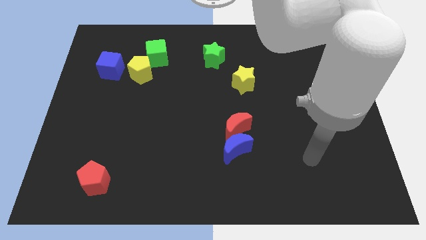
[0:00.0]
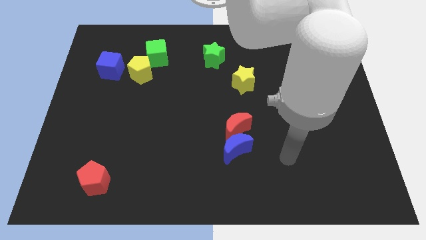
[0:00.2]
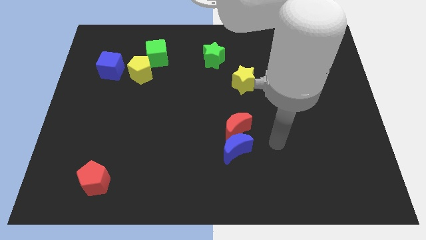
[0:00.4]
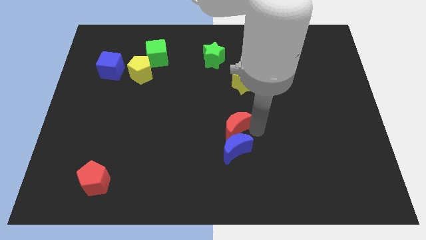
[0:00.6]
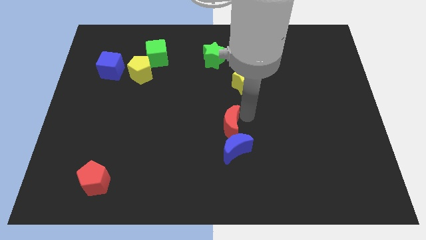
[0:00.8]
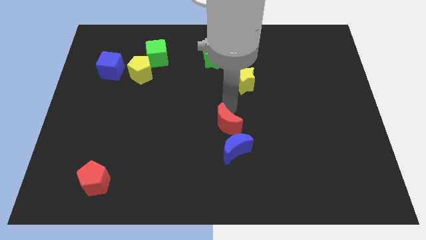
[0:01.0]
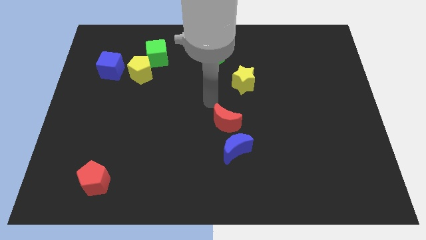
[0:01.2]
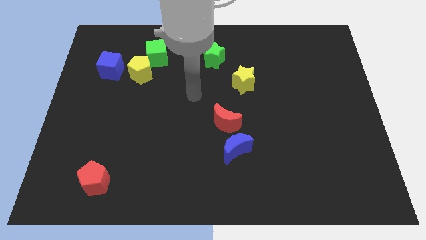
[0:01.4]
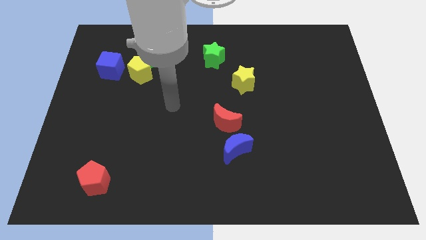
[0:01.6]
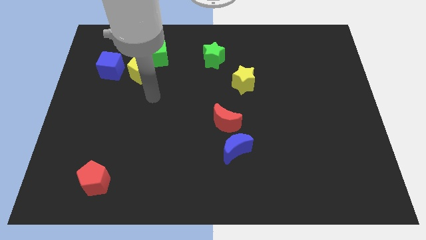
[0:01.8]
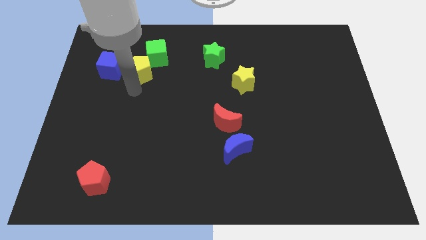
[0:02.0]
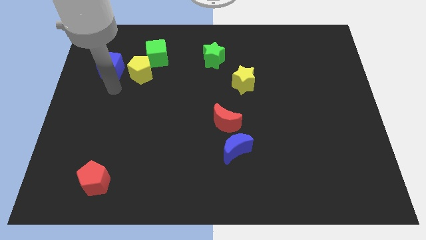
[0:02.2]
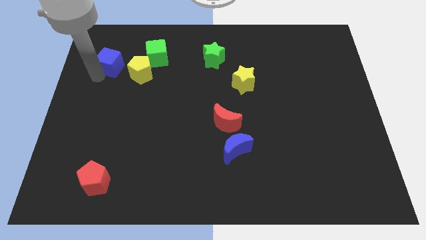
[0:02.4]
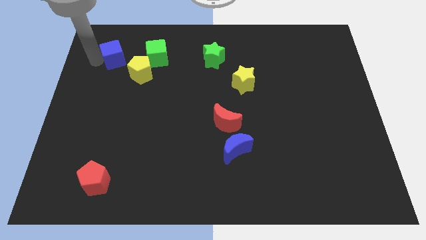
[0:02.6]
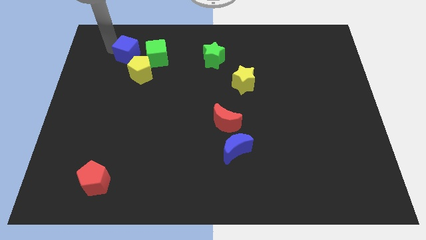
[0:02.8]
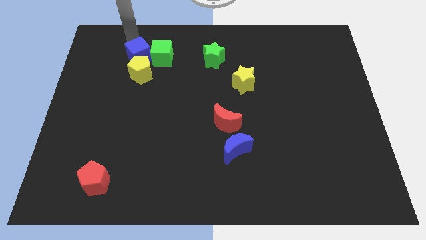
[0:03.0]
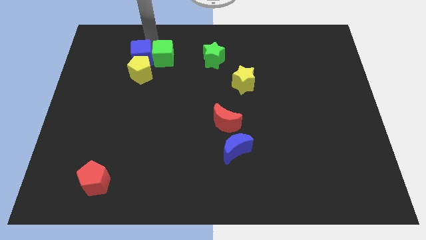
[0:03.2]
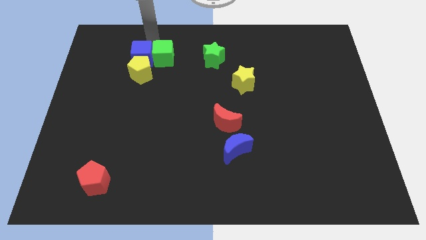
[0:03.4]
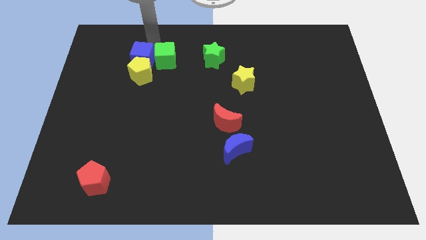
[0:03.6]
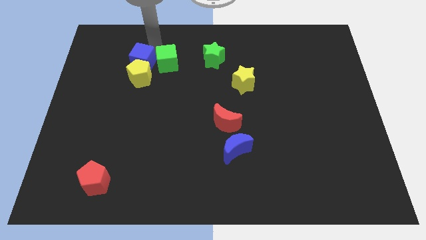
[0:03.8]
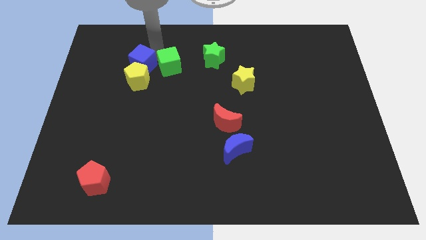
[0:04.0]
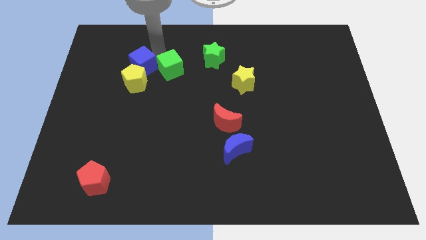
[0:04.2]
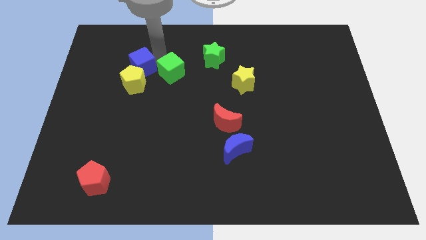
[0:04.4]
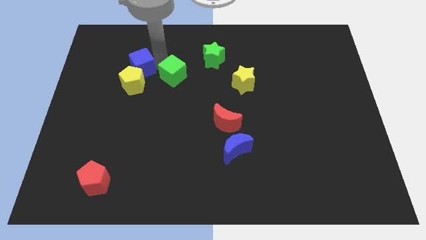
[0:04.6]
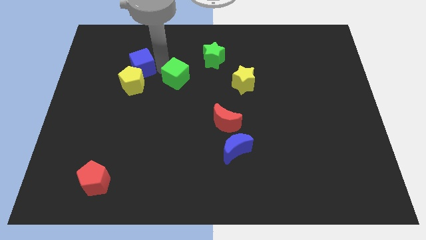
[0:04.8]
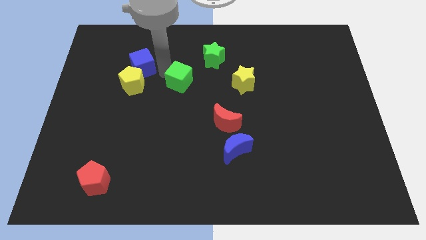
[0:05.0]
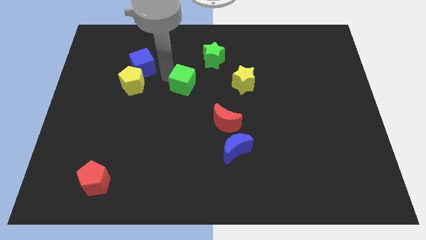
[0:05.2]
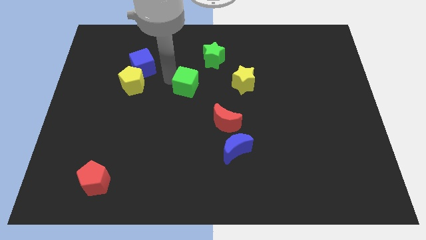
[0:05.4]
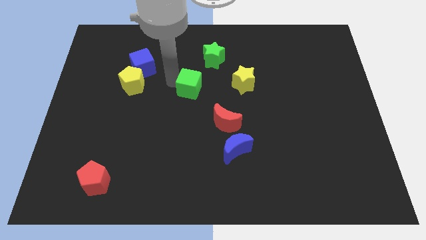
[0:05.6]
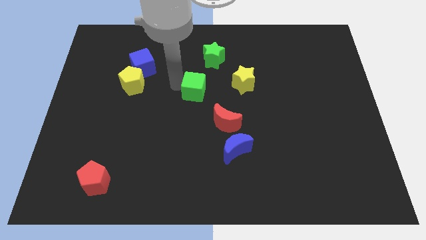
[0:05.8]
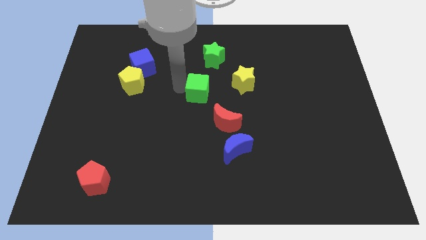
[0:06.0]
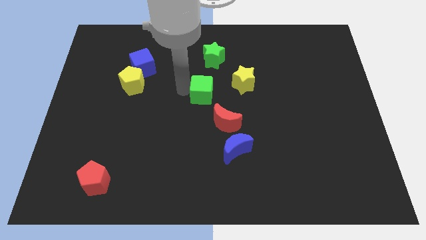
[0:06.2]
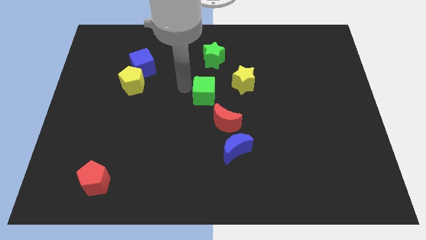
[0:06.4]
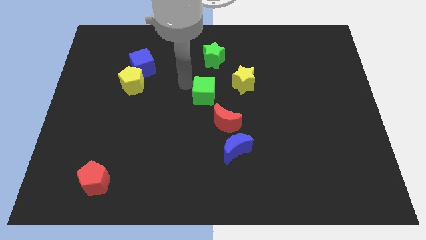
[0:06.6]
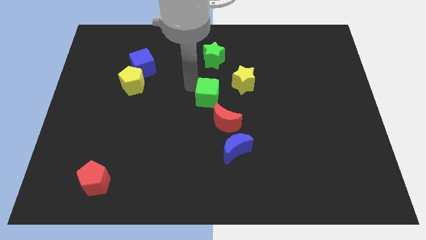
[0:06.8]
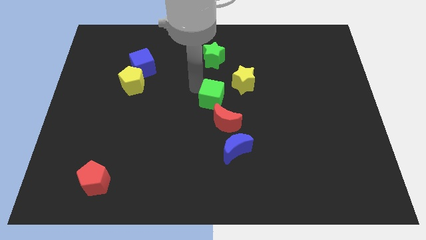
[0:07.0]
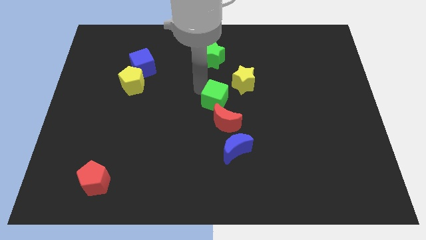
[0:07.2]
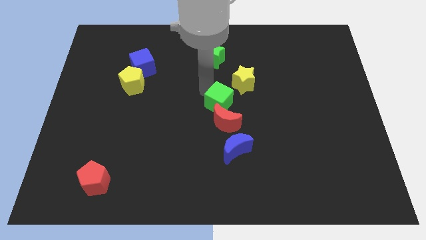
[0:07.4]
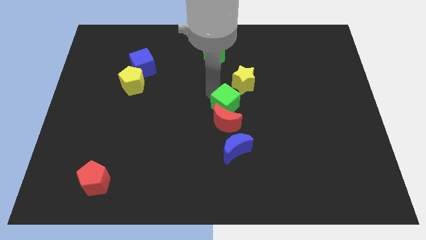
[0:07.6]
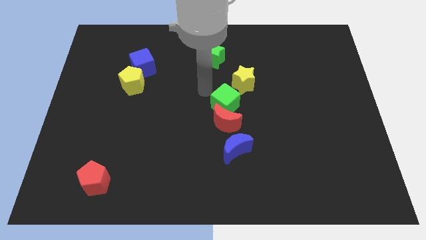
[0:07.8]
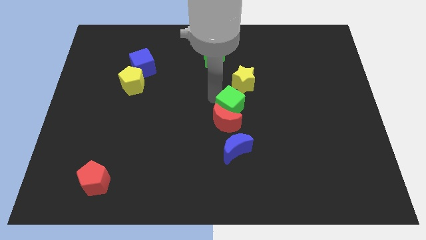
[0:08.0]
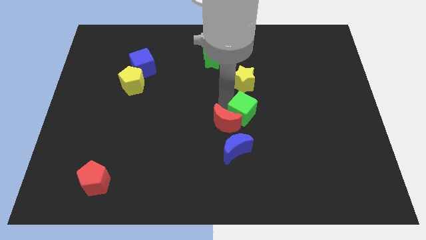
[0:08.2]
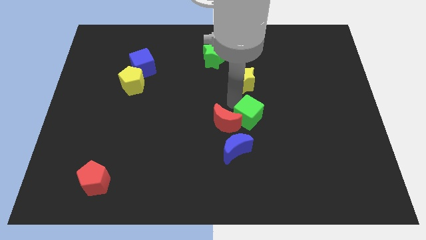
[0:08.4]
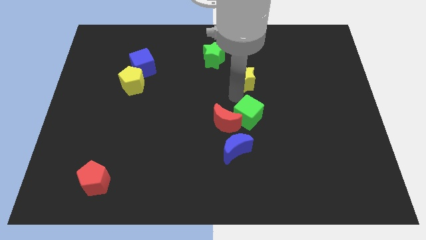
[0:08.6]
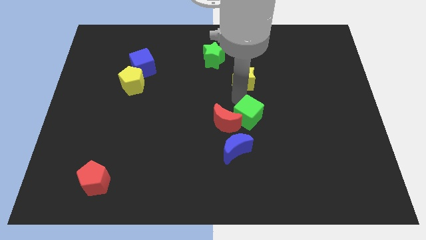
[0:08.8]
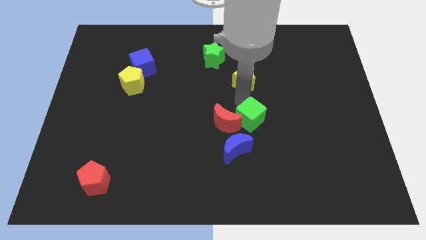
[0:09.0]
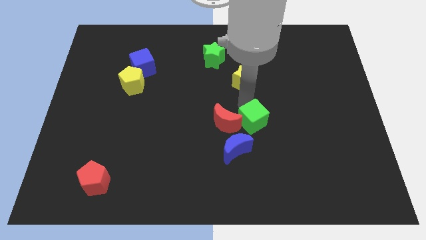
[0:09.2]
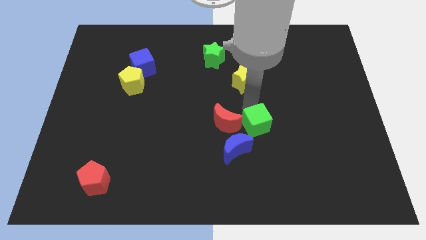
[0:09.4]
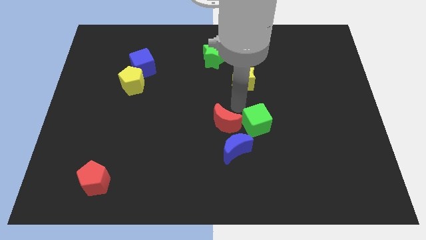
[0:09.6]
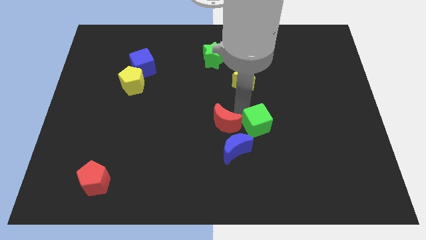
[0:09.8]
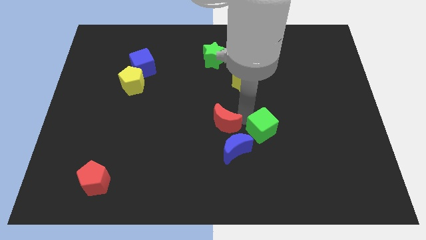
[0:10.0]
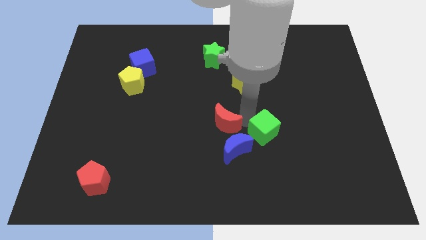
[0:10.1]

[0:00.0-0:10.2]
push the green cube to the right side of the blue moon

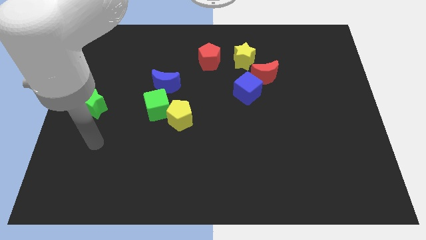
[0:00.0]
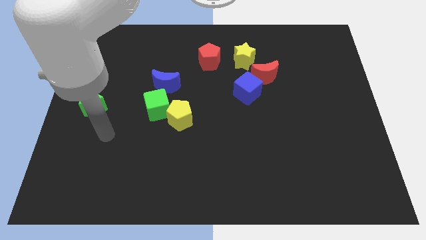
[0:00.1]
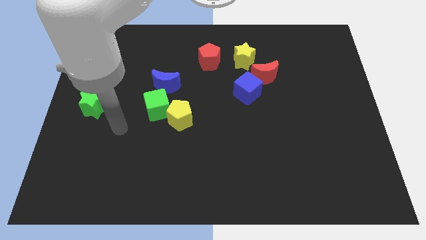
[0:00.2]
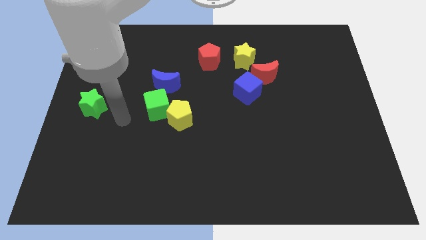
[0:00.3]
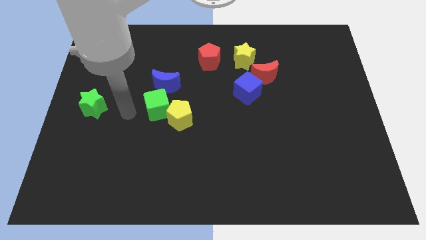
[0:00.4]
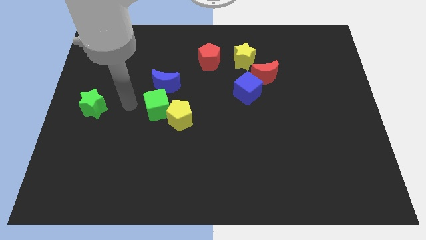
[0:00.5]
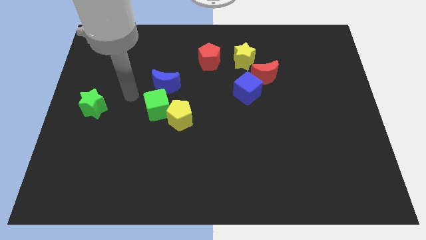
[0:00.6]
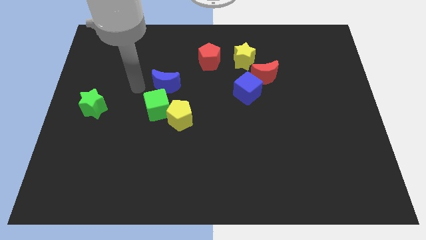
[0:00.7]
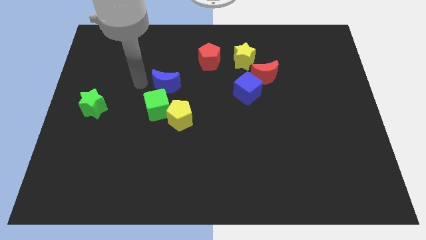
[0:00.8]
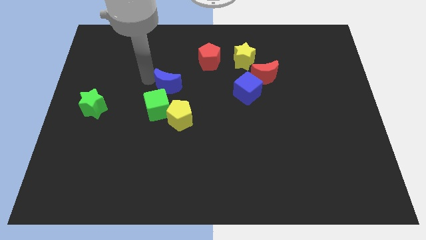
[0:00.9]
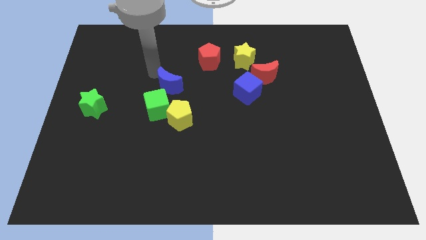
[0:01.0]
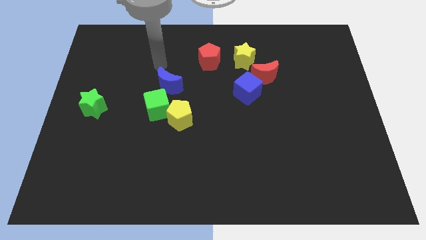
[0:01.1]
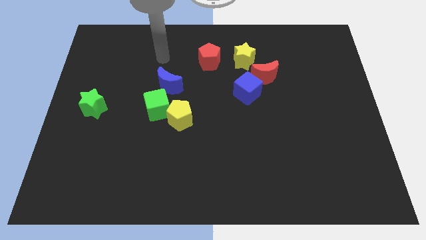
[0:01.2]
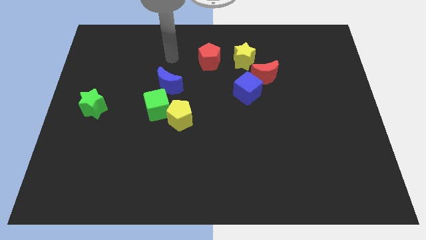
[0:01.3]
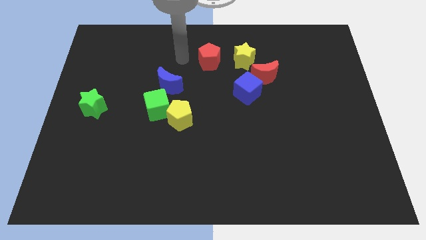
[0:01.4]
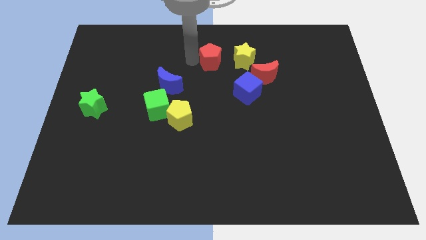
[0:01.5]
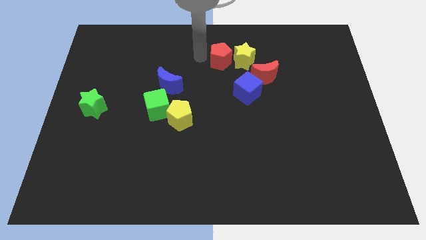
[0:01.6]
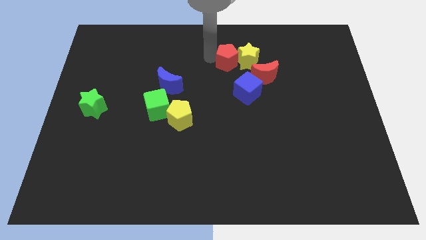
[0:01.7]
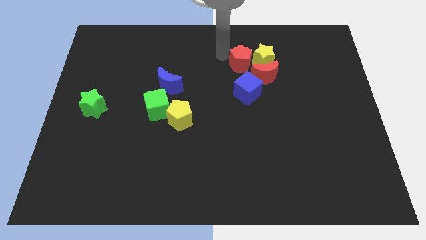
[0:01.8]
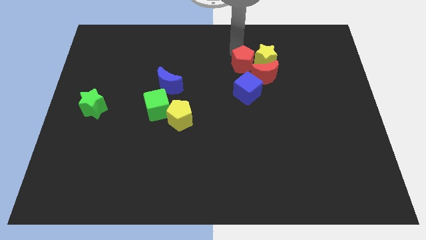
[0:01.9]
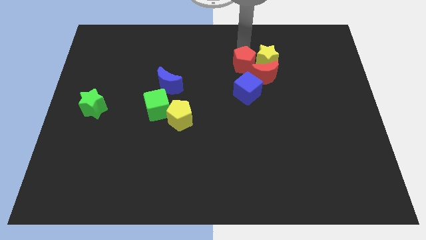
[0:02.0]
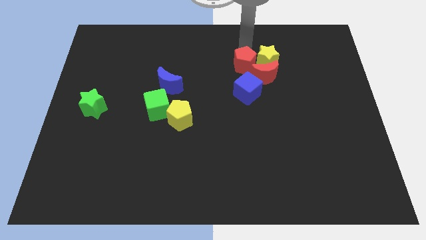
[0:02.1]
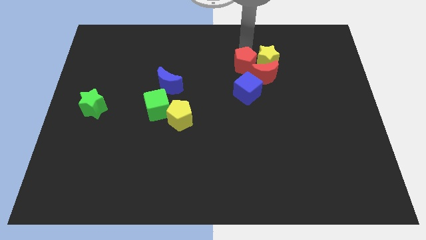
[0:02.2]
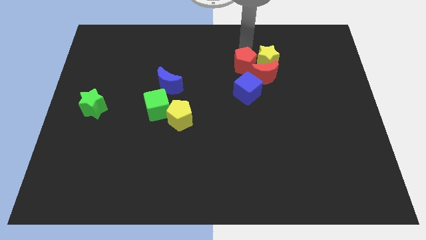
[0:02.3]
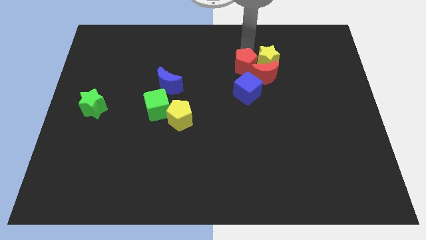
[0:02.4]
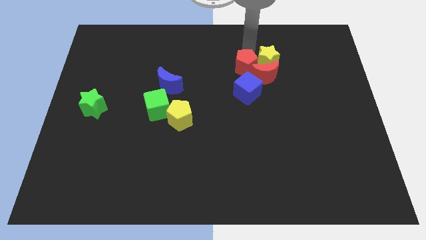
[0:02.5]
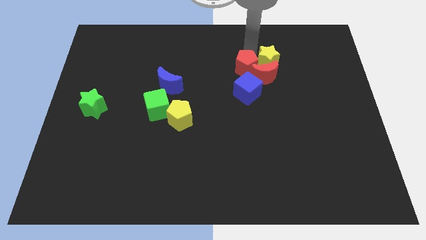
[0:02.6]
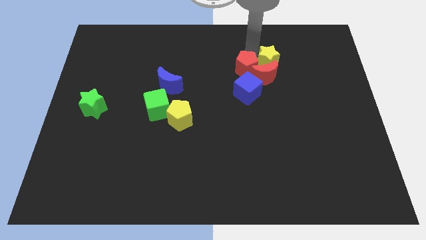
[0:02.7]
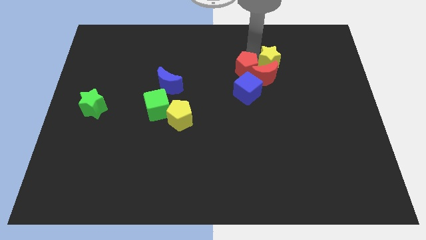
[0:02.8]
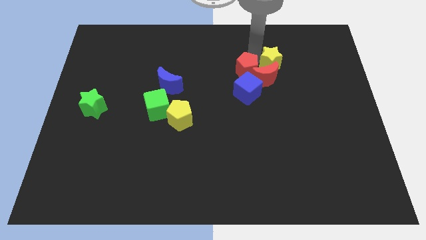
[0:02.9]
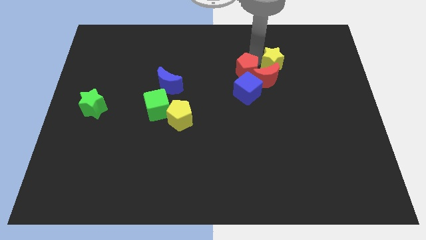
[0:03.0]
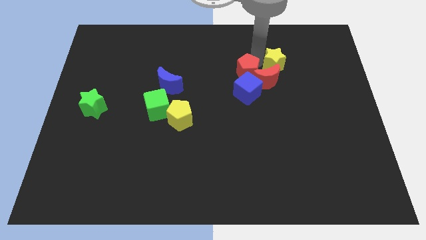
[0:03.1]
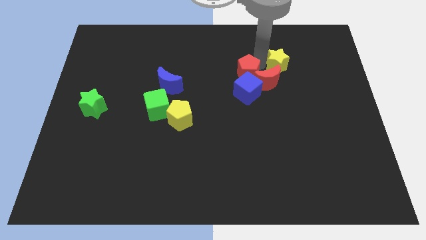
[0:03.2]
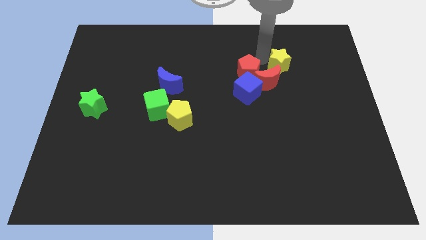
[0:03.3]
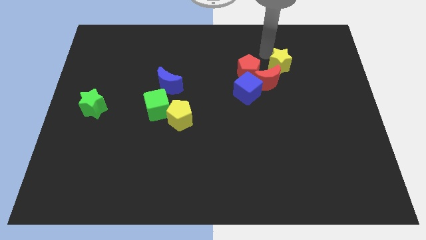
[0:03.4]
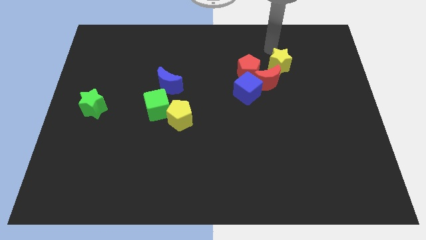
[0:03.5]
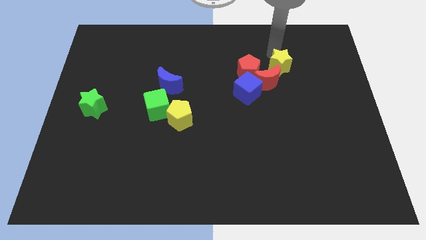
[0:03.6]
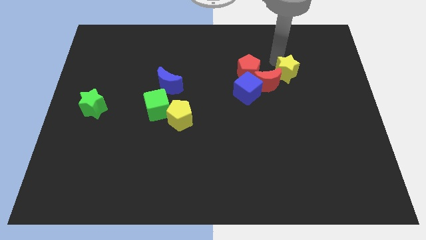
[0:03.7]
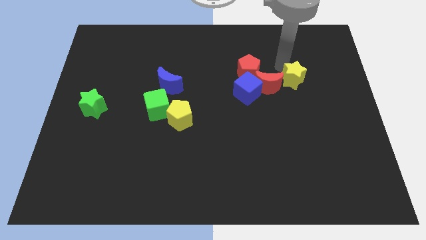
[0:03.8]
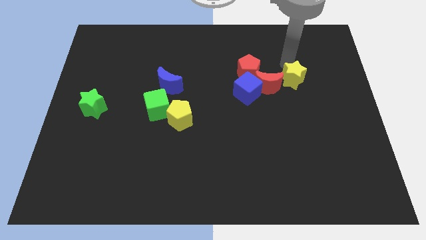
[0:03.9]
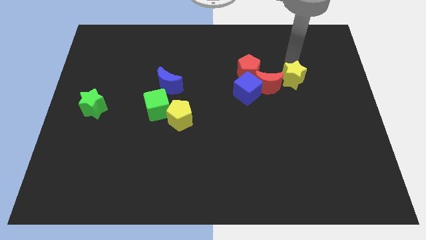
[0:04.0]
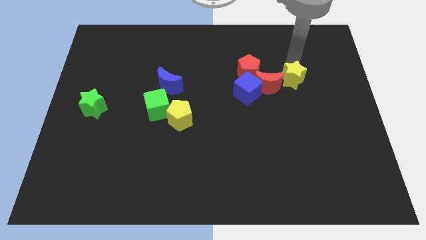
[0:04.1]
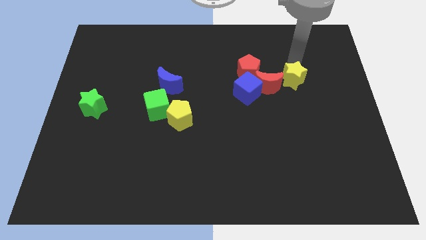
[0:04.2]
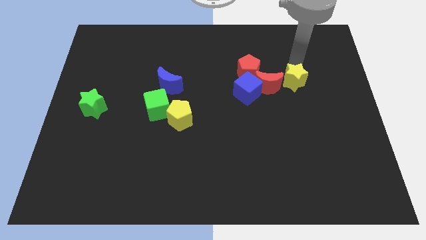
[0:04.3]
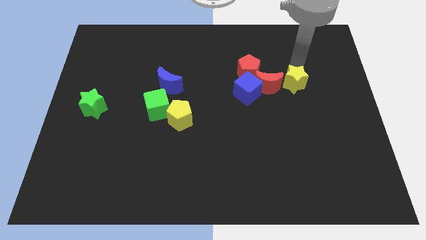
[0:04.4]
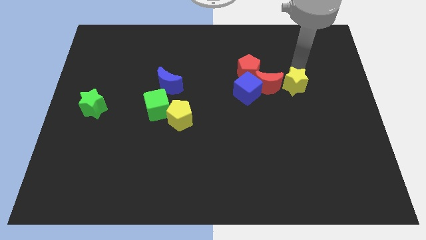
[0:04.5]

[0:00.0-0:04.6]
slide the yellow star diagonally down and to the right of the red moon
